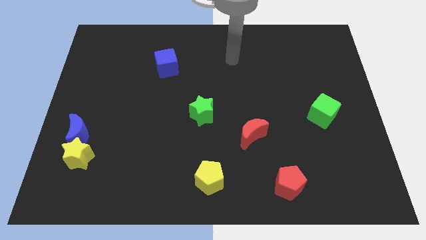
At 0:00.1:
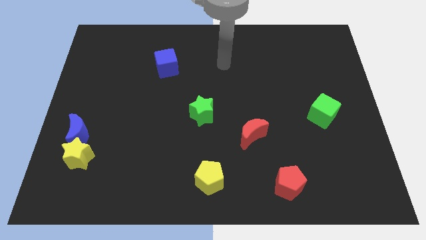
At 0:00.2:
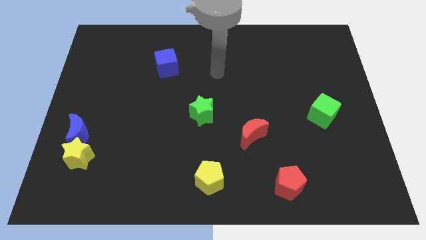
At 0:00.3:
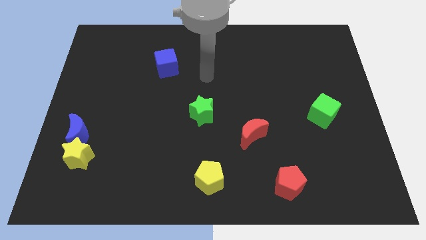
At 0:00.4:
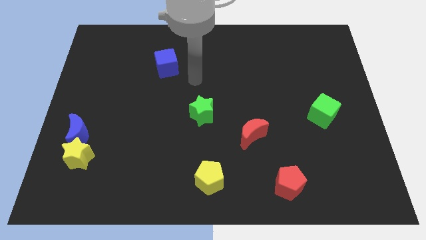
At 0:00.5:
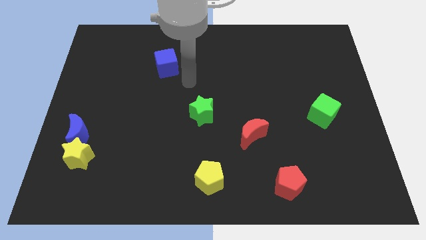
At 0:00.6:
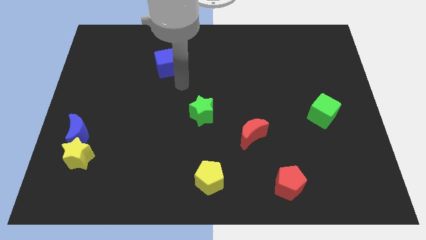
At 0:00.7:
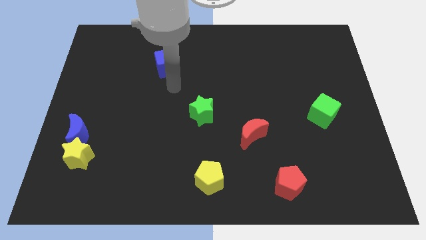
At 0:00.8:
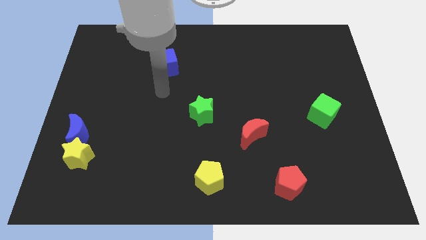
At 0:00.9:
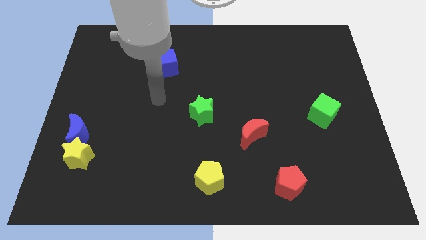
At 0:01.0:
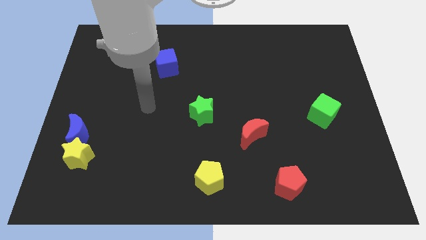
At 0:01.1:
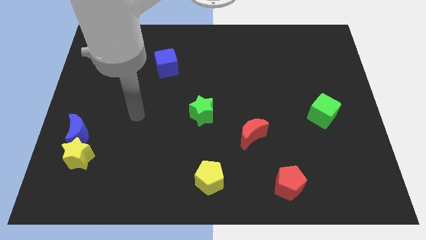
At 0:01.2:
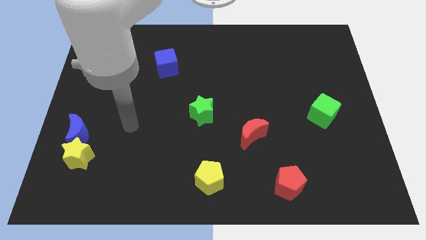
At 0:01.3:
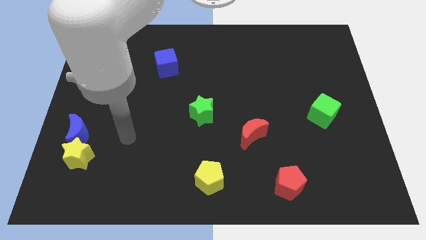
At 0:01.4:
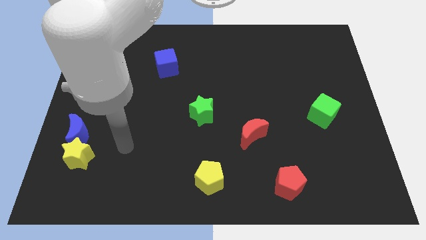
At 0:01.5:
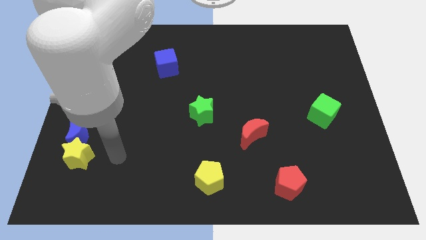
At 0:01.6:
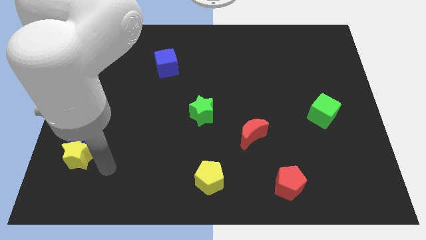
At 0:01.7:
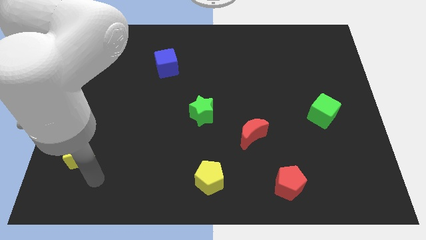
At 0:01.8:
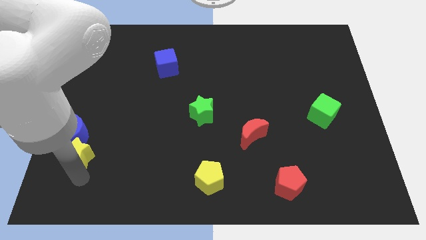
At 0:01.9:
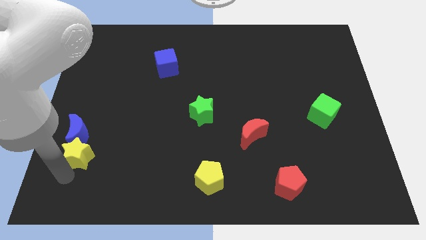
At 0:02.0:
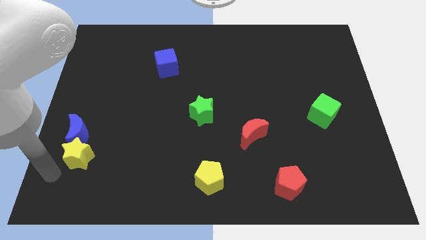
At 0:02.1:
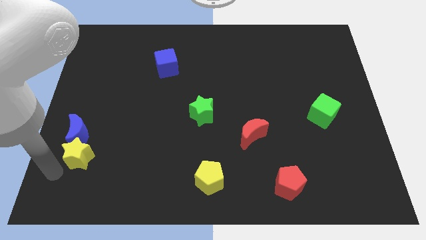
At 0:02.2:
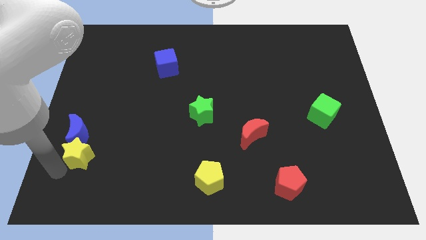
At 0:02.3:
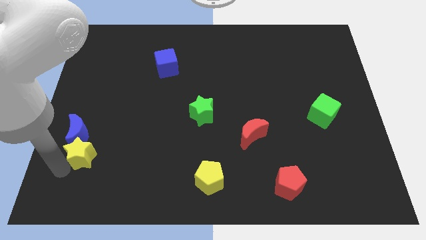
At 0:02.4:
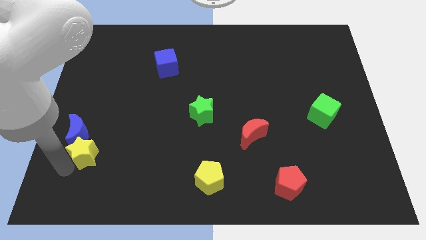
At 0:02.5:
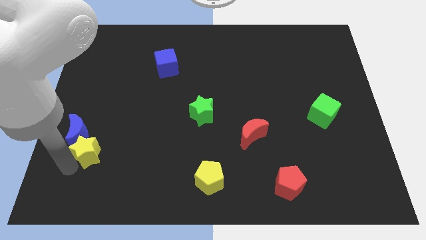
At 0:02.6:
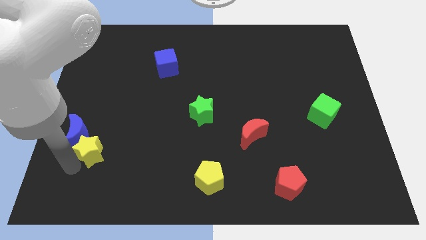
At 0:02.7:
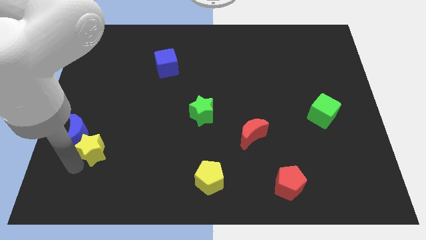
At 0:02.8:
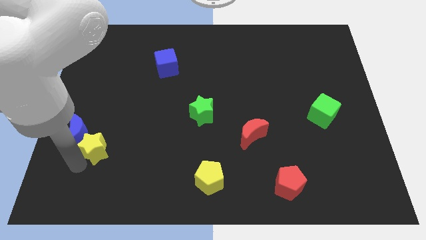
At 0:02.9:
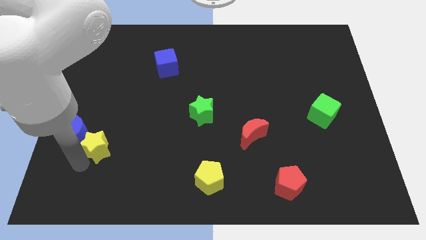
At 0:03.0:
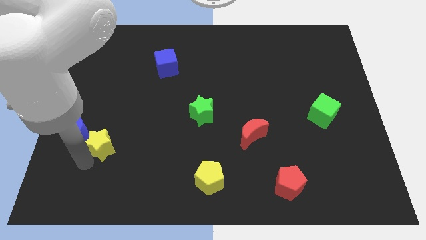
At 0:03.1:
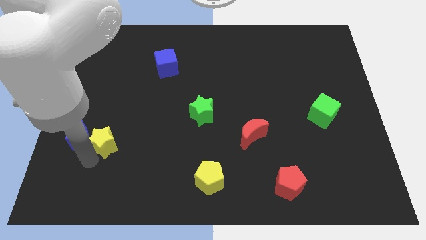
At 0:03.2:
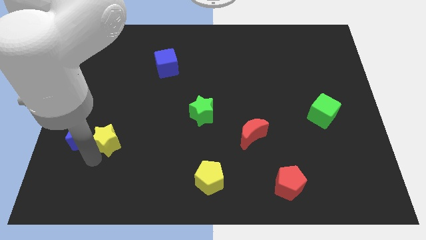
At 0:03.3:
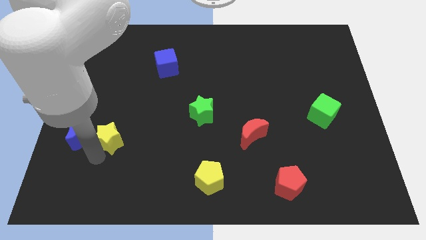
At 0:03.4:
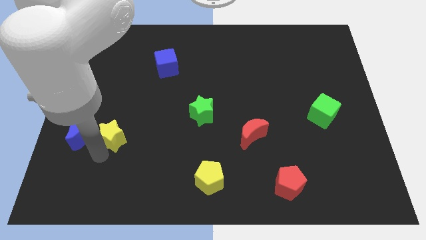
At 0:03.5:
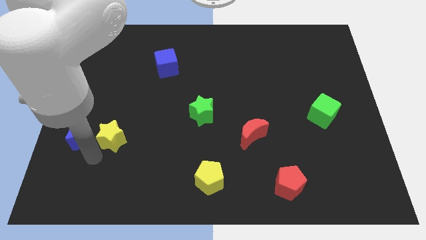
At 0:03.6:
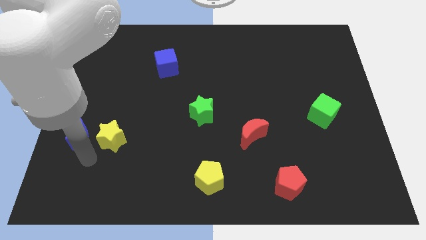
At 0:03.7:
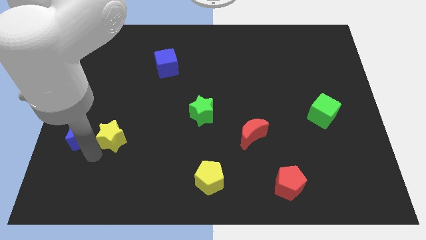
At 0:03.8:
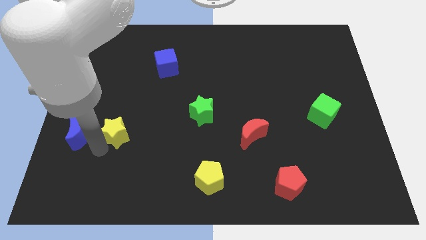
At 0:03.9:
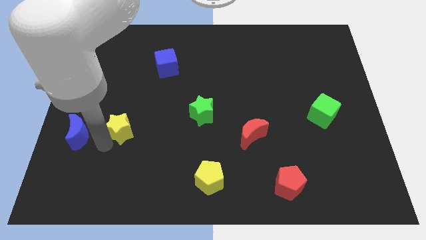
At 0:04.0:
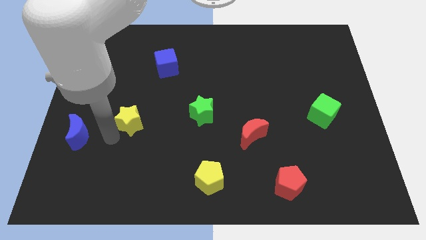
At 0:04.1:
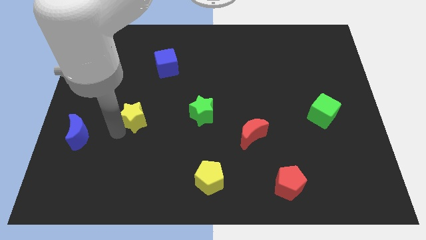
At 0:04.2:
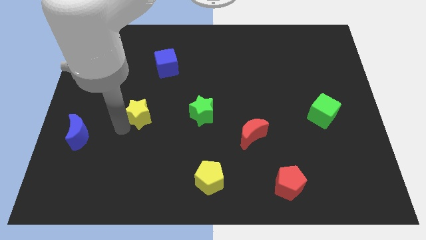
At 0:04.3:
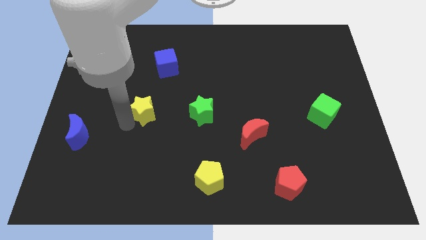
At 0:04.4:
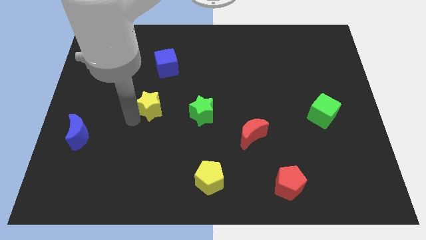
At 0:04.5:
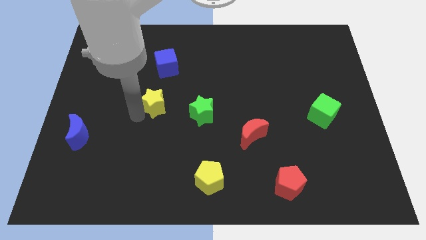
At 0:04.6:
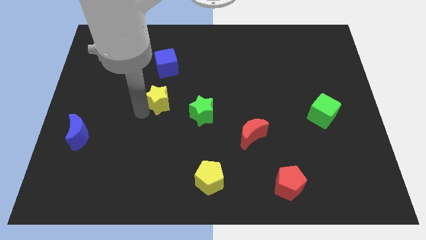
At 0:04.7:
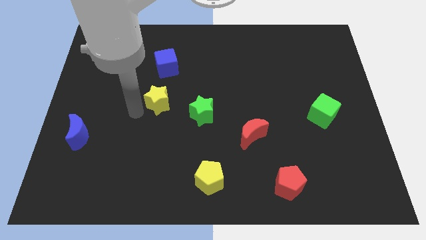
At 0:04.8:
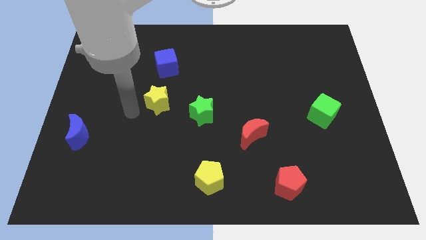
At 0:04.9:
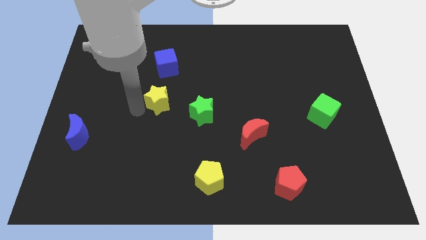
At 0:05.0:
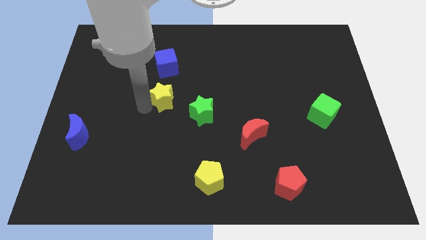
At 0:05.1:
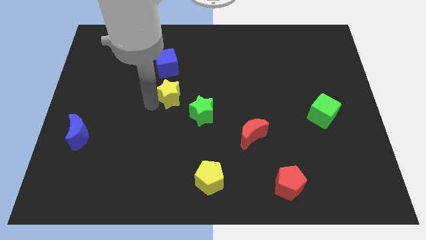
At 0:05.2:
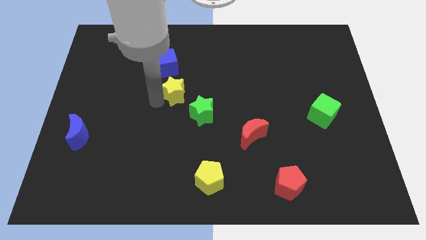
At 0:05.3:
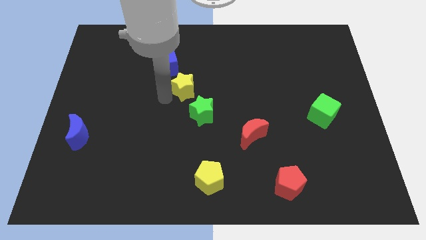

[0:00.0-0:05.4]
push the yellow star to the top of the green star
